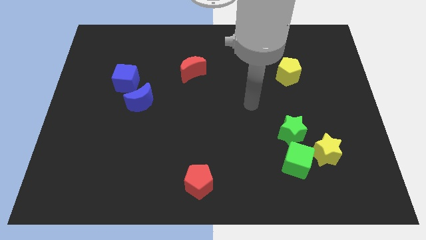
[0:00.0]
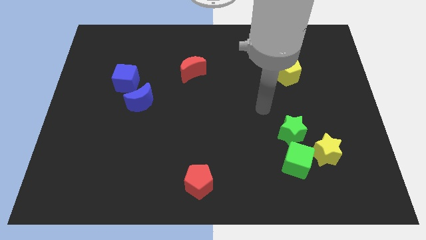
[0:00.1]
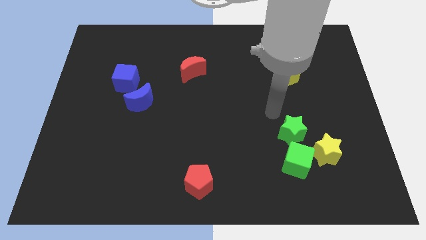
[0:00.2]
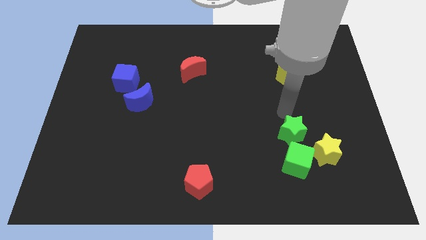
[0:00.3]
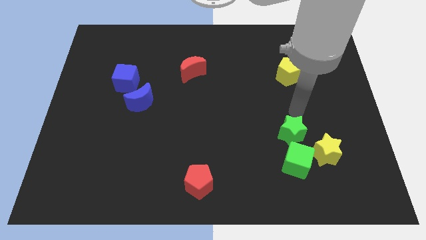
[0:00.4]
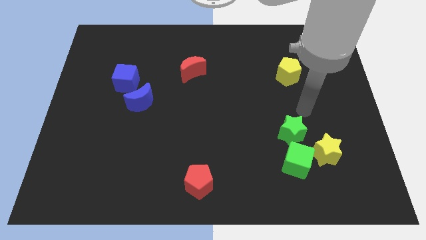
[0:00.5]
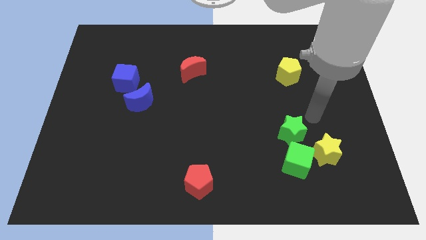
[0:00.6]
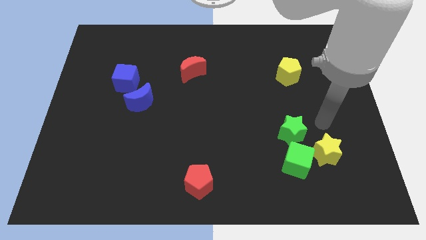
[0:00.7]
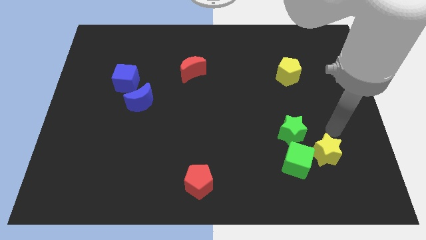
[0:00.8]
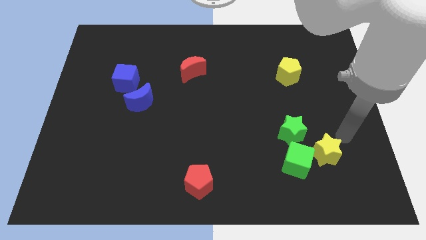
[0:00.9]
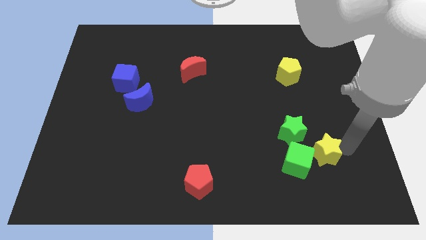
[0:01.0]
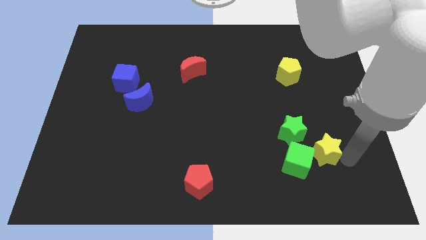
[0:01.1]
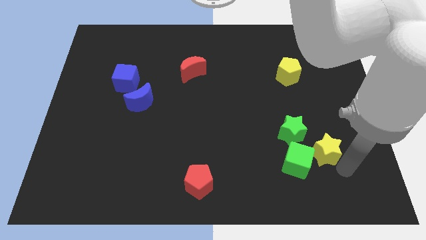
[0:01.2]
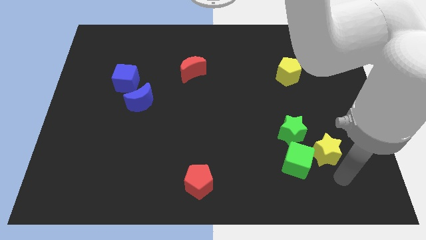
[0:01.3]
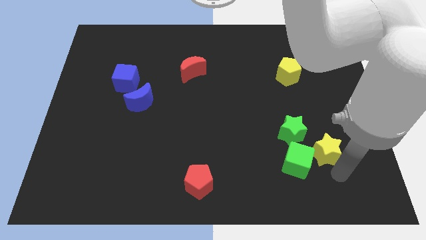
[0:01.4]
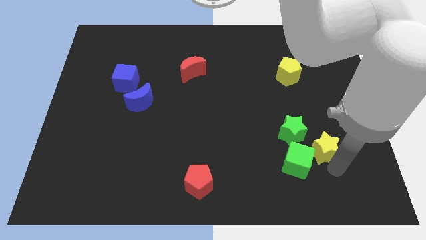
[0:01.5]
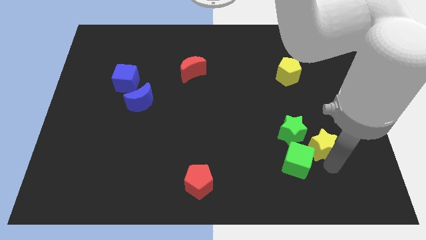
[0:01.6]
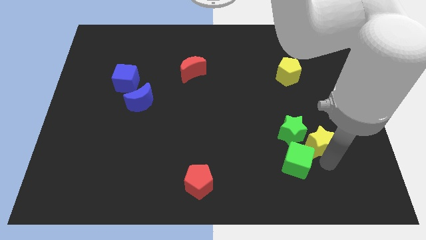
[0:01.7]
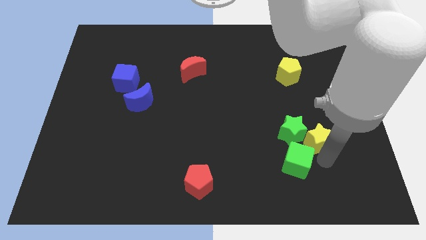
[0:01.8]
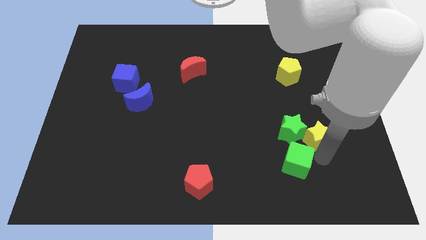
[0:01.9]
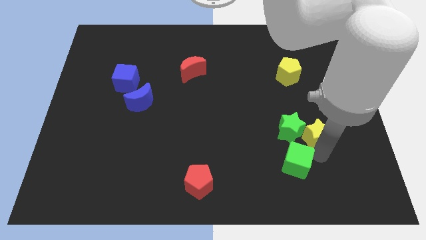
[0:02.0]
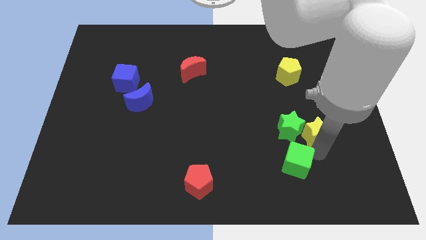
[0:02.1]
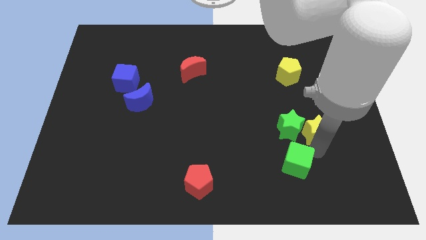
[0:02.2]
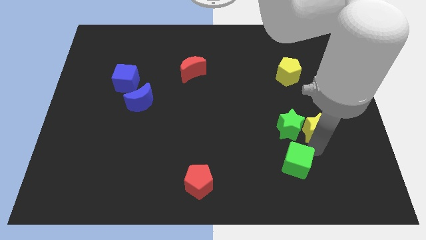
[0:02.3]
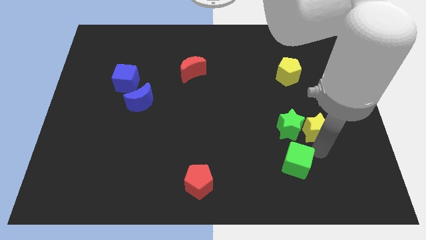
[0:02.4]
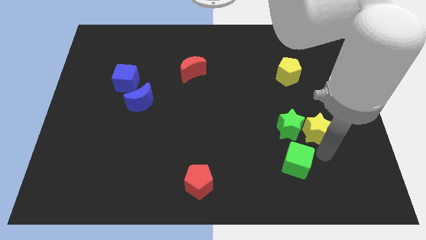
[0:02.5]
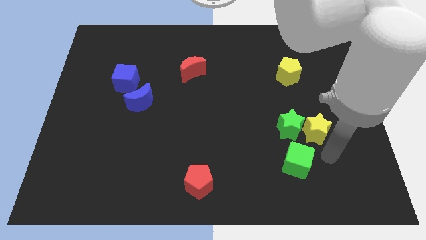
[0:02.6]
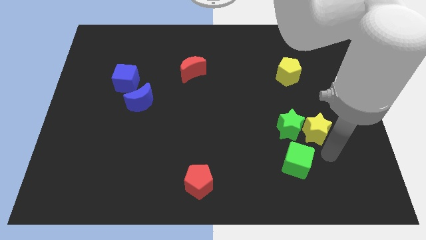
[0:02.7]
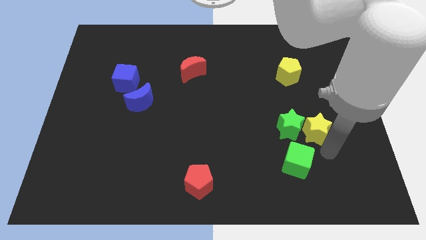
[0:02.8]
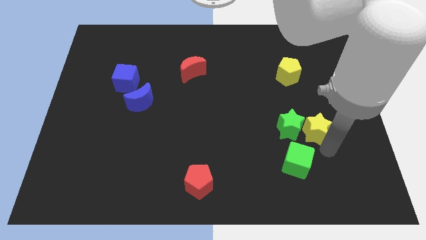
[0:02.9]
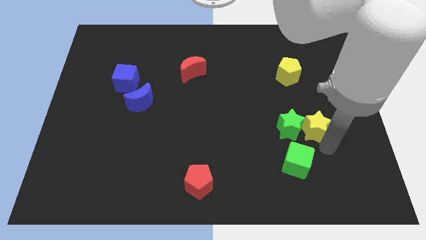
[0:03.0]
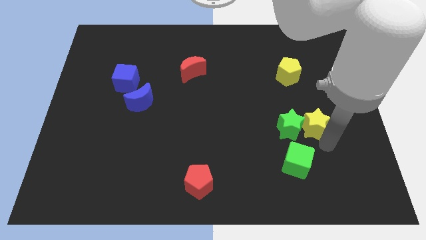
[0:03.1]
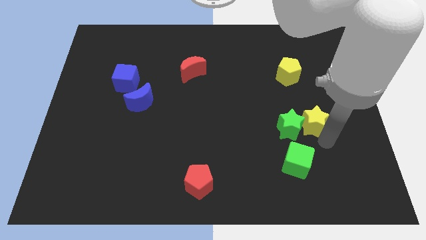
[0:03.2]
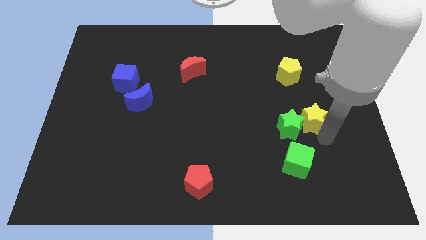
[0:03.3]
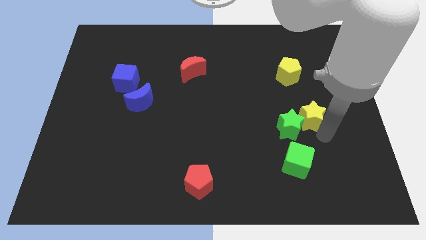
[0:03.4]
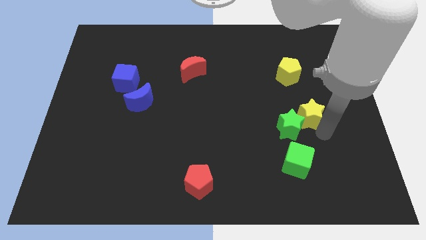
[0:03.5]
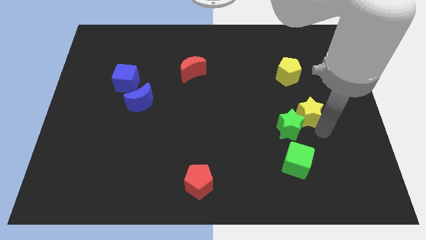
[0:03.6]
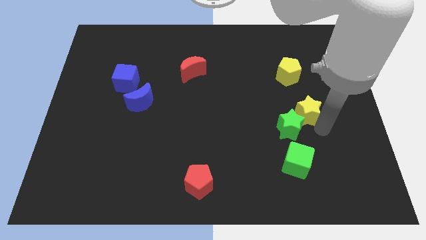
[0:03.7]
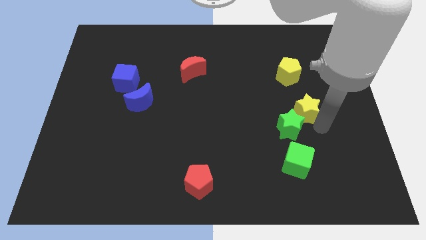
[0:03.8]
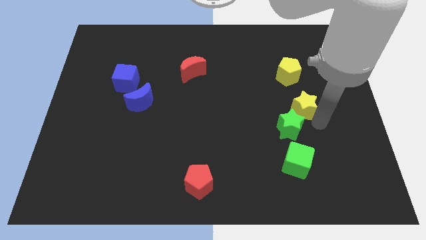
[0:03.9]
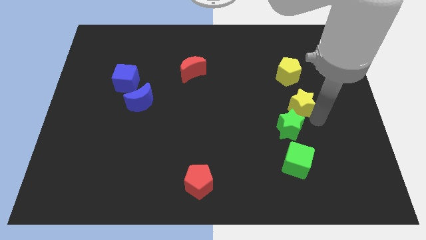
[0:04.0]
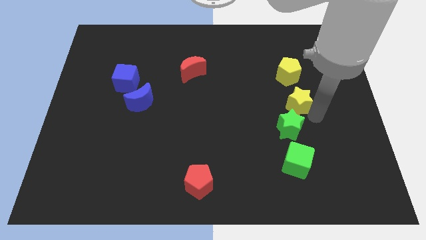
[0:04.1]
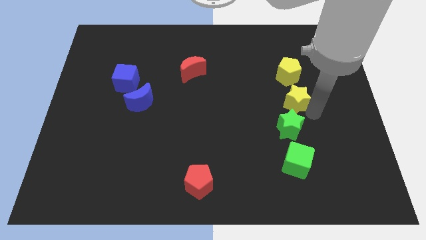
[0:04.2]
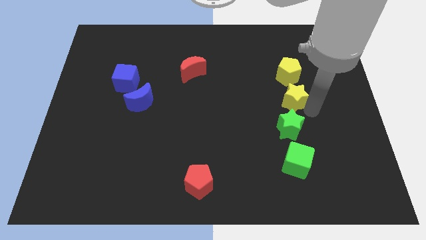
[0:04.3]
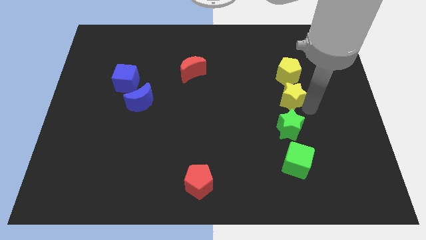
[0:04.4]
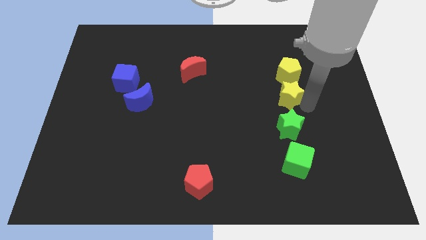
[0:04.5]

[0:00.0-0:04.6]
push the yellow star diagonally down and to the left of the yellow pentagon

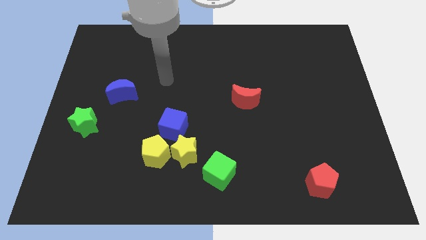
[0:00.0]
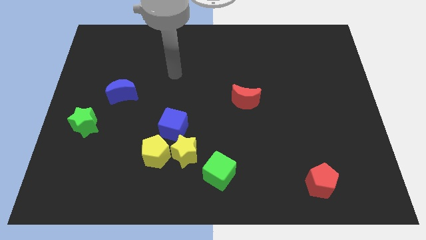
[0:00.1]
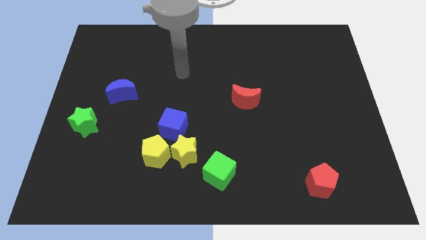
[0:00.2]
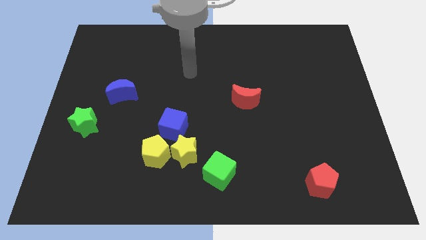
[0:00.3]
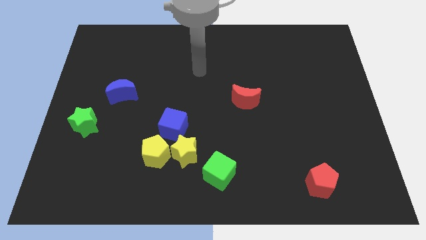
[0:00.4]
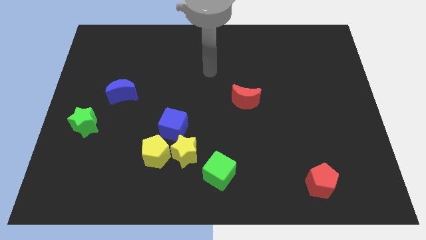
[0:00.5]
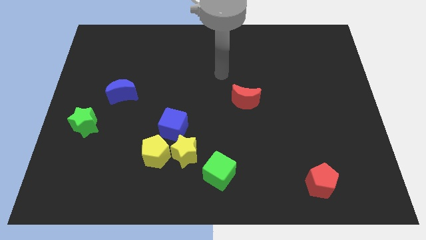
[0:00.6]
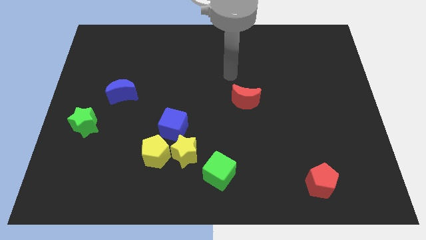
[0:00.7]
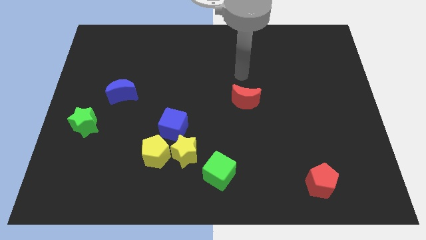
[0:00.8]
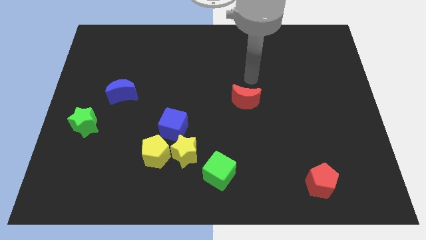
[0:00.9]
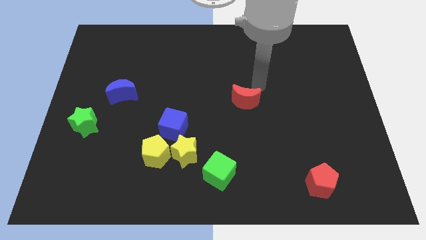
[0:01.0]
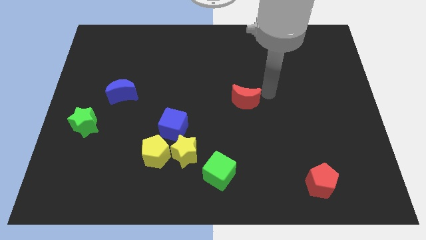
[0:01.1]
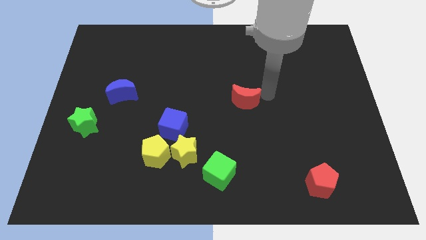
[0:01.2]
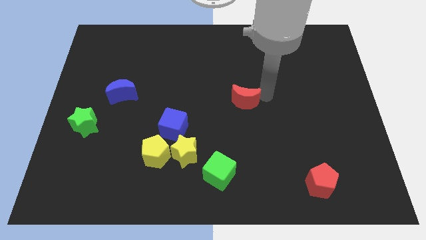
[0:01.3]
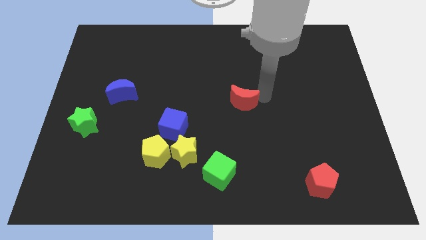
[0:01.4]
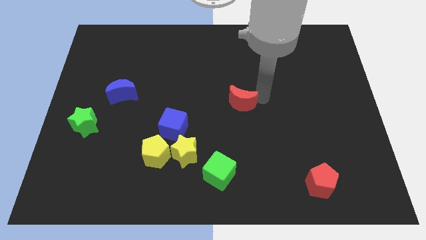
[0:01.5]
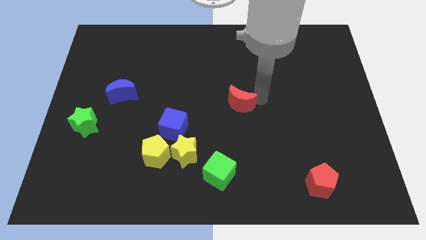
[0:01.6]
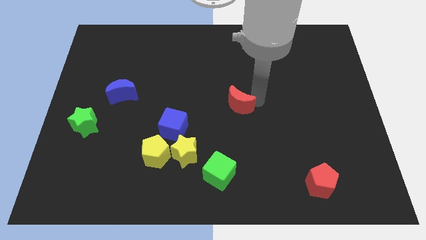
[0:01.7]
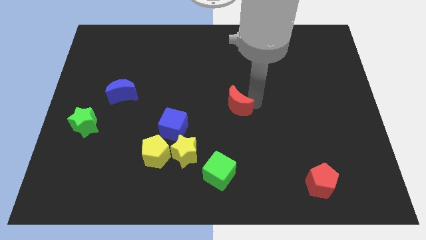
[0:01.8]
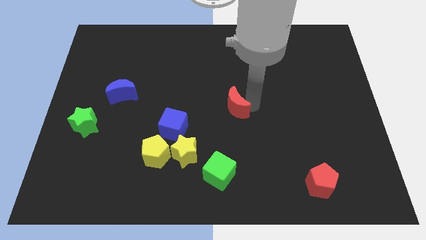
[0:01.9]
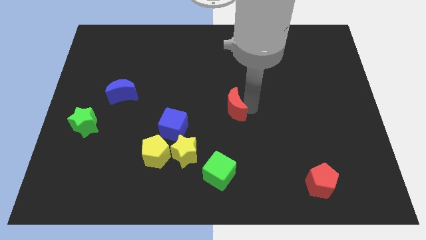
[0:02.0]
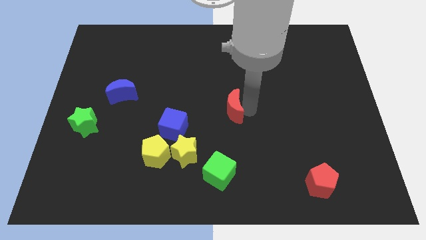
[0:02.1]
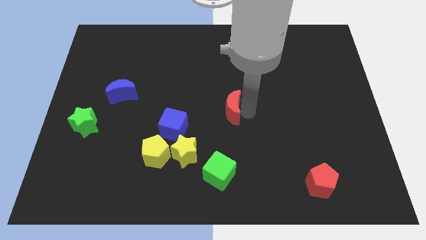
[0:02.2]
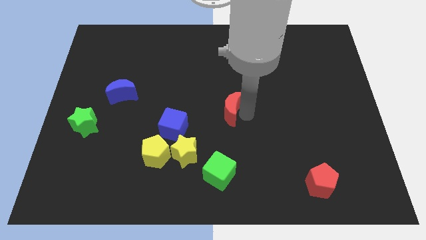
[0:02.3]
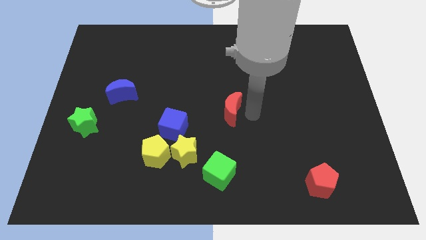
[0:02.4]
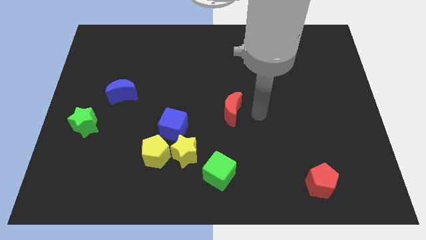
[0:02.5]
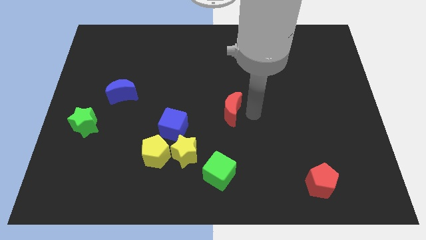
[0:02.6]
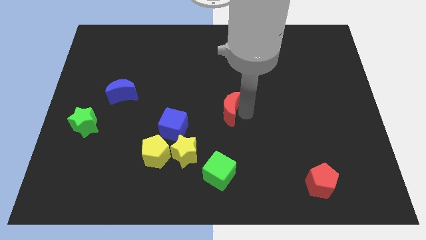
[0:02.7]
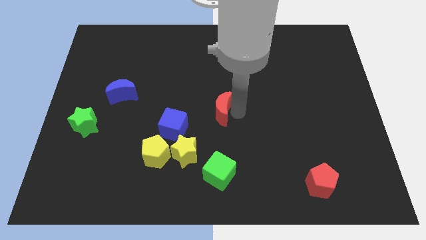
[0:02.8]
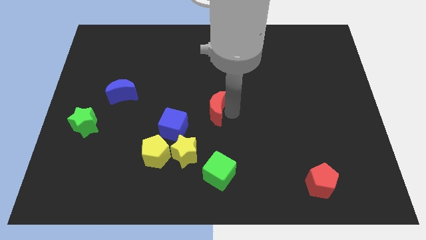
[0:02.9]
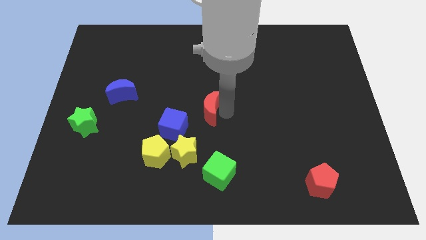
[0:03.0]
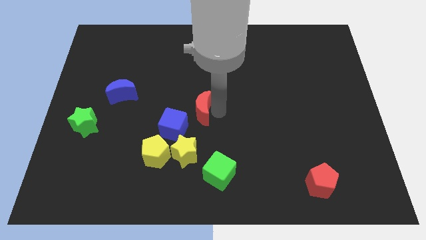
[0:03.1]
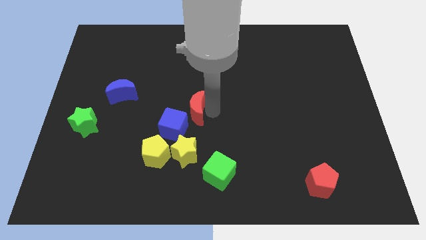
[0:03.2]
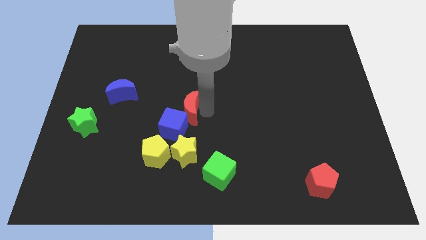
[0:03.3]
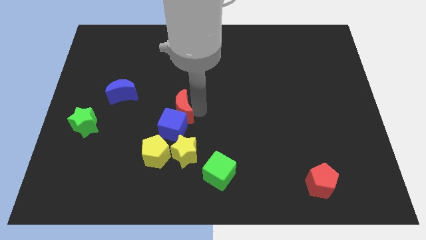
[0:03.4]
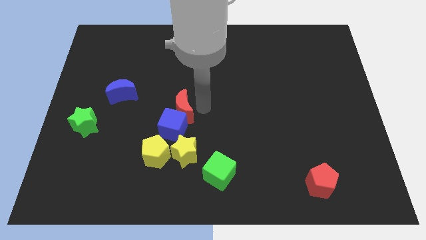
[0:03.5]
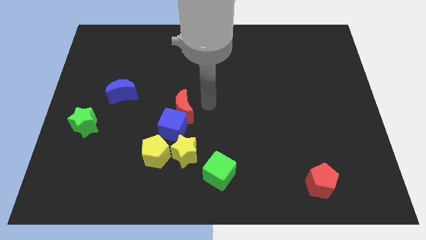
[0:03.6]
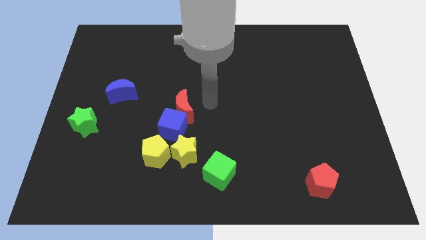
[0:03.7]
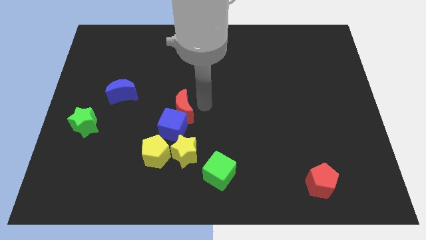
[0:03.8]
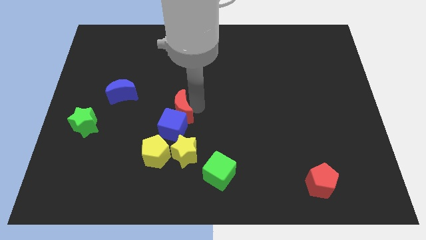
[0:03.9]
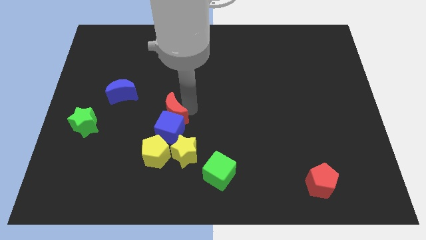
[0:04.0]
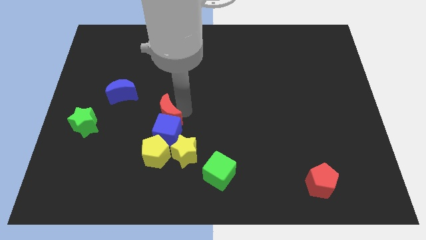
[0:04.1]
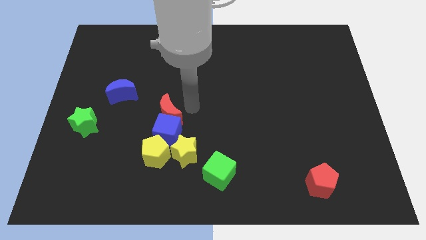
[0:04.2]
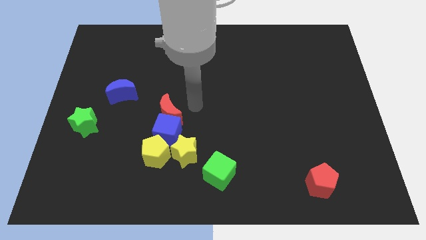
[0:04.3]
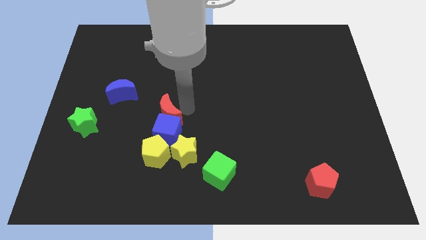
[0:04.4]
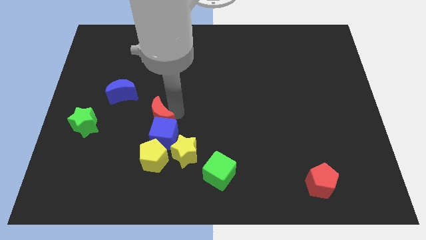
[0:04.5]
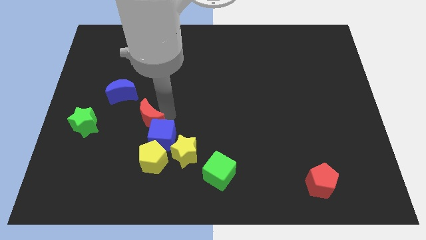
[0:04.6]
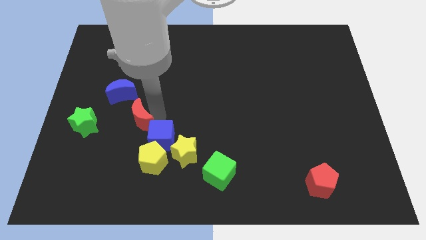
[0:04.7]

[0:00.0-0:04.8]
slide the red moon to the left of the blue cube
